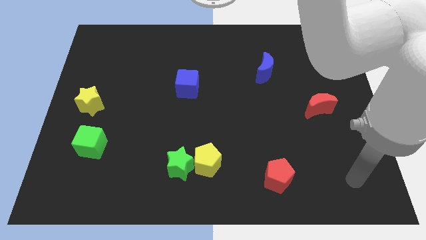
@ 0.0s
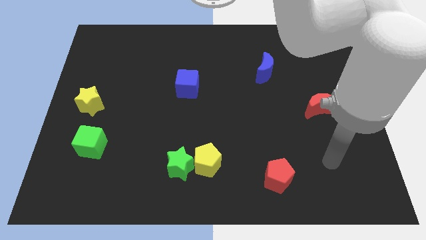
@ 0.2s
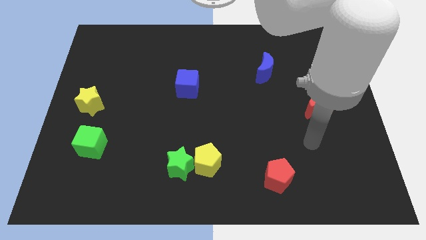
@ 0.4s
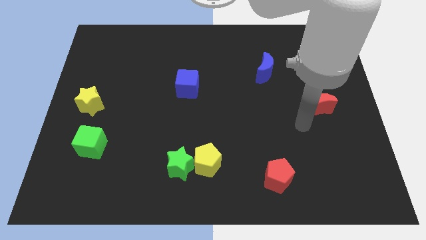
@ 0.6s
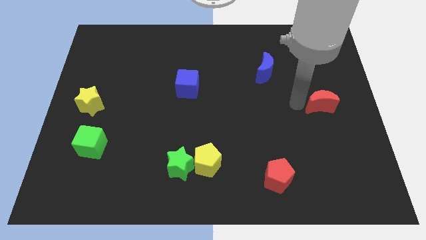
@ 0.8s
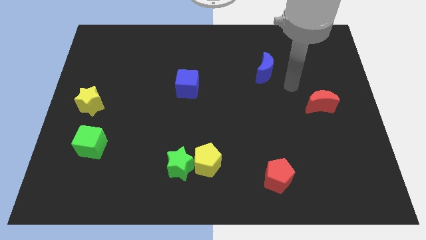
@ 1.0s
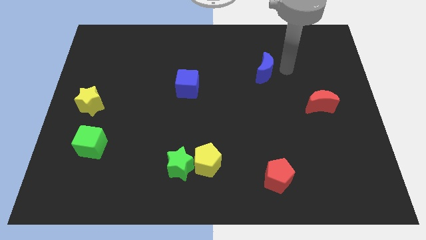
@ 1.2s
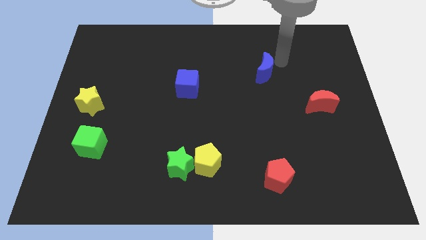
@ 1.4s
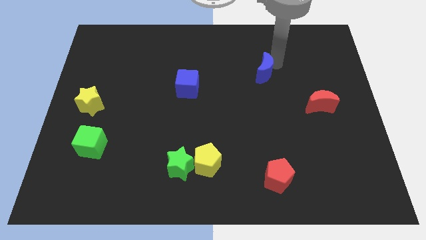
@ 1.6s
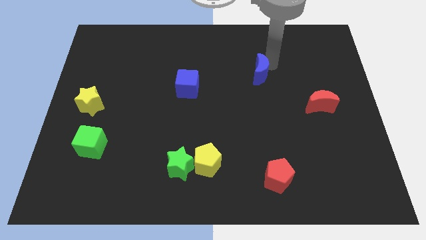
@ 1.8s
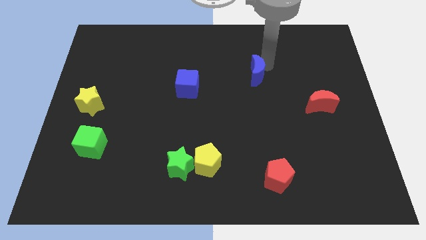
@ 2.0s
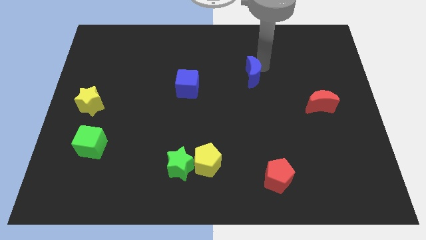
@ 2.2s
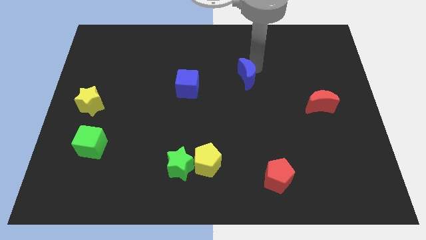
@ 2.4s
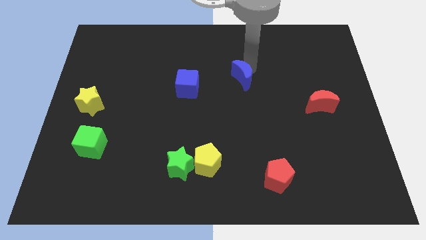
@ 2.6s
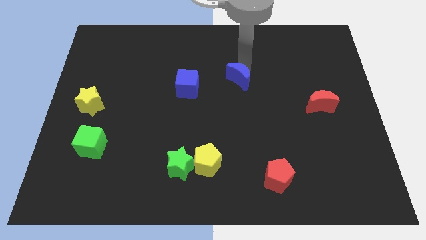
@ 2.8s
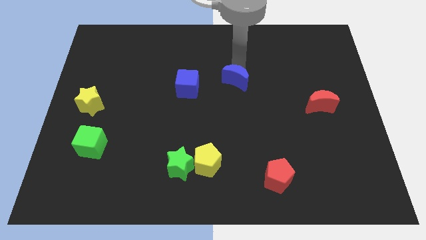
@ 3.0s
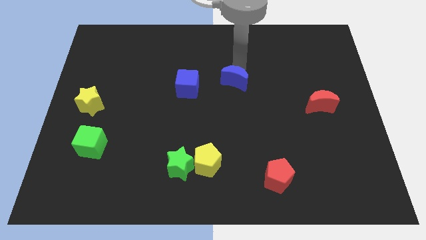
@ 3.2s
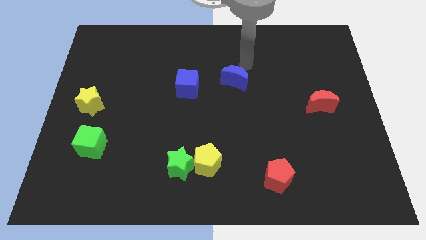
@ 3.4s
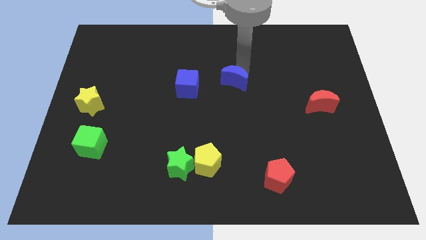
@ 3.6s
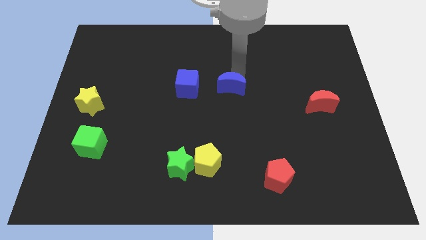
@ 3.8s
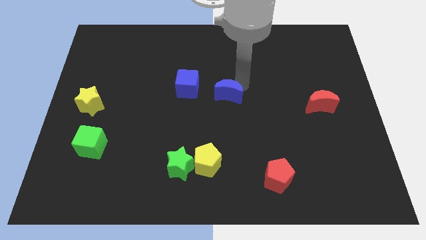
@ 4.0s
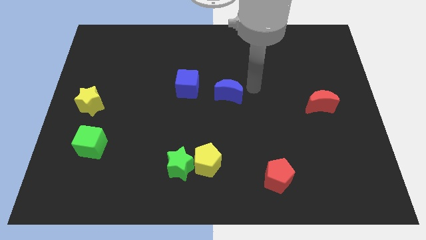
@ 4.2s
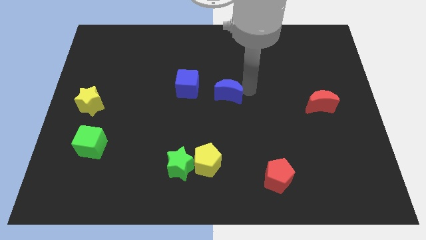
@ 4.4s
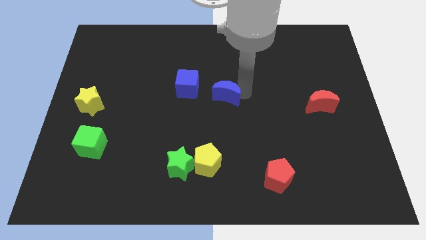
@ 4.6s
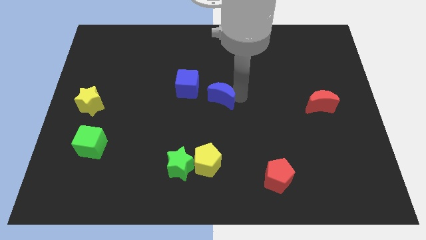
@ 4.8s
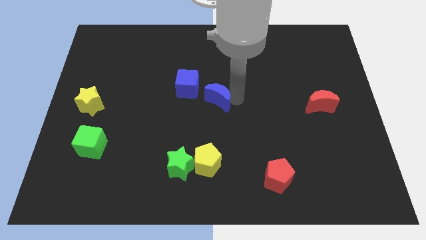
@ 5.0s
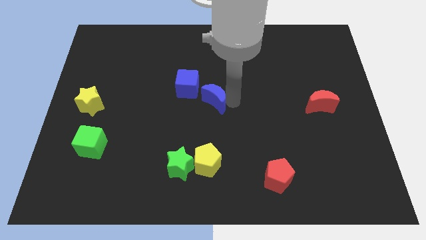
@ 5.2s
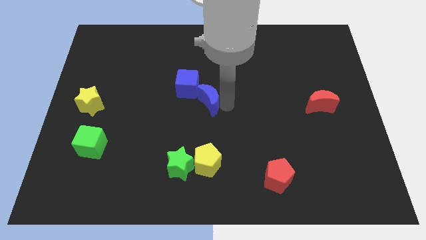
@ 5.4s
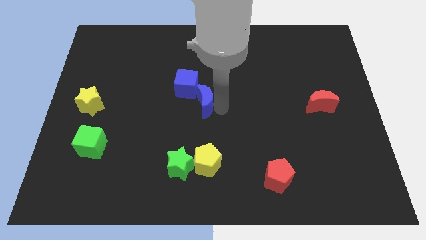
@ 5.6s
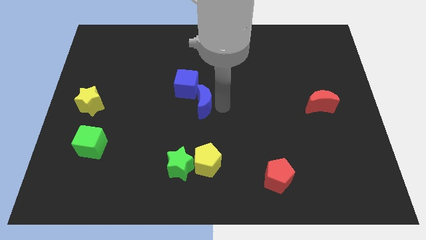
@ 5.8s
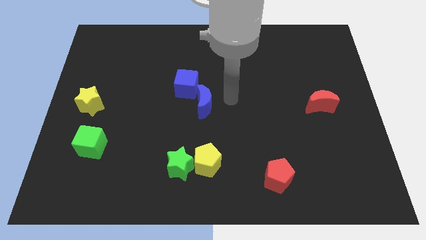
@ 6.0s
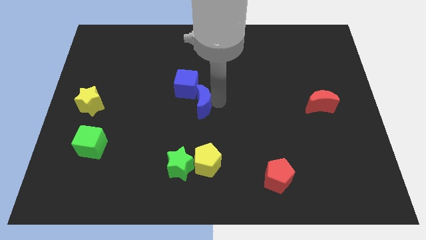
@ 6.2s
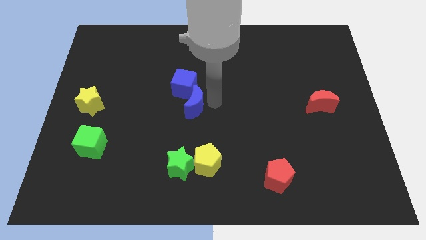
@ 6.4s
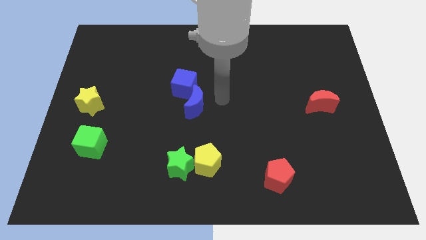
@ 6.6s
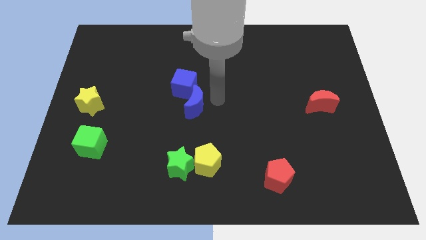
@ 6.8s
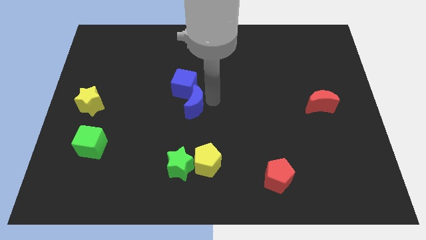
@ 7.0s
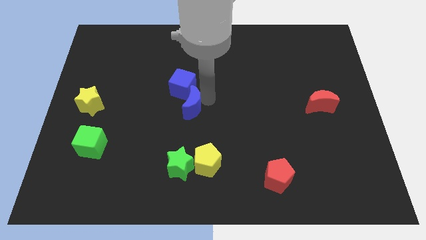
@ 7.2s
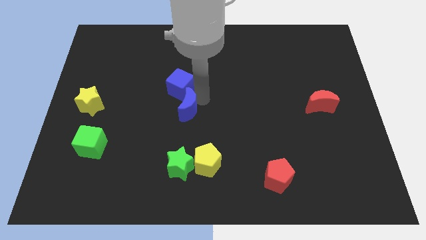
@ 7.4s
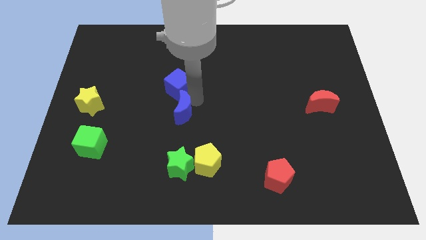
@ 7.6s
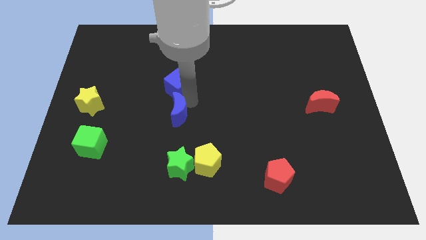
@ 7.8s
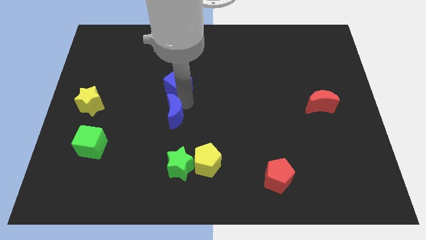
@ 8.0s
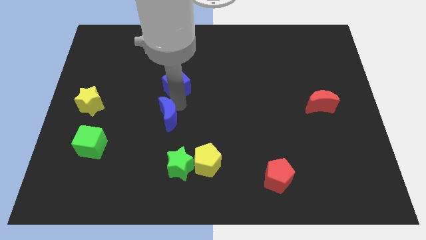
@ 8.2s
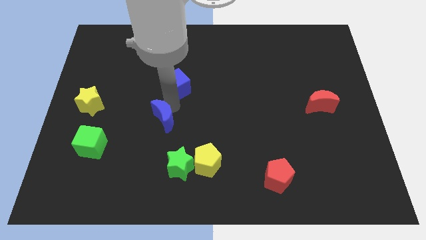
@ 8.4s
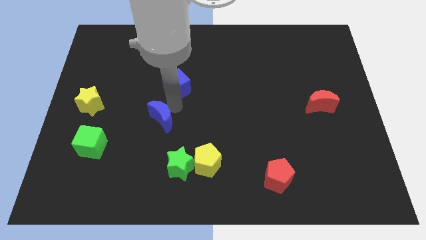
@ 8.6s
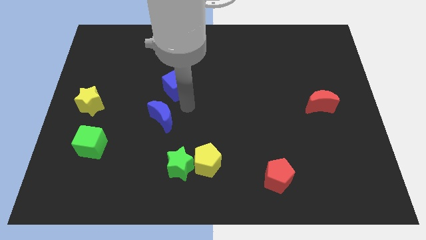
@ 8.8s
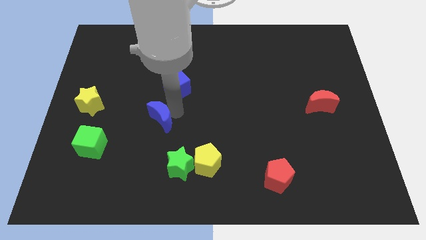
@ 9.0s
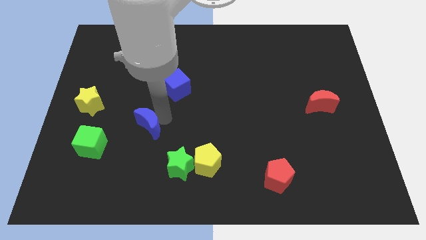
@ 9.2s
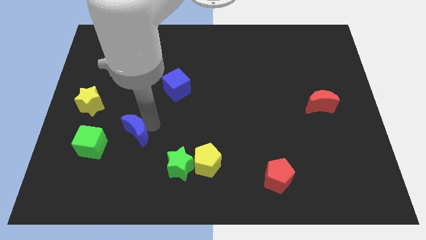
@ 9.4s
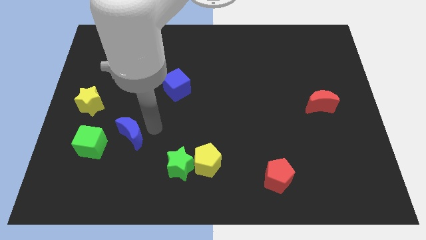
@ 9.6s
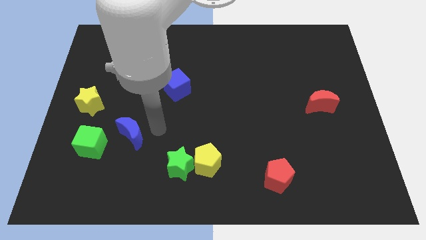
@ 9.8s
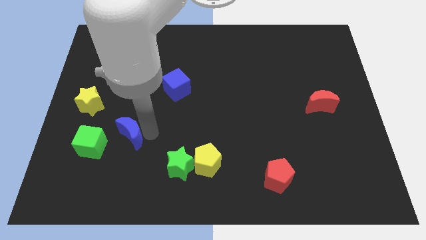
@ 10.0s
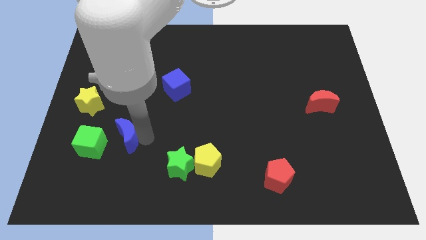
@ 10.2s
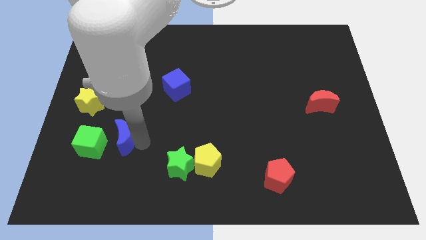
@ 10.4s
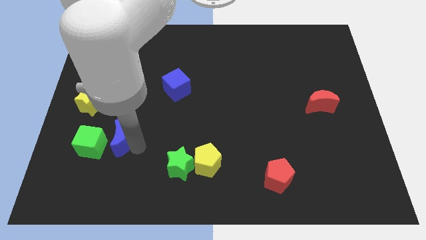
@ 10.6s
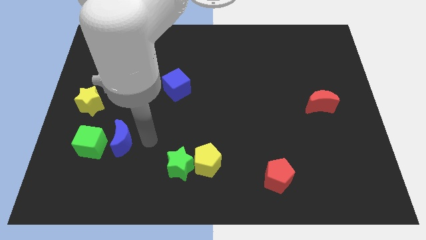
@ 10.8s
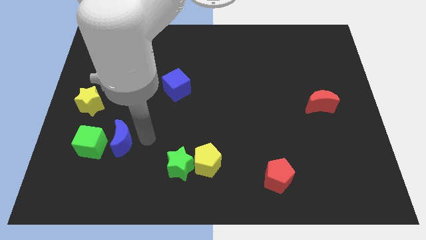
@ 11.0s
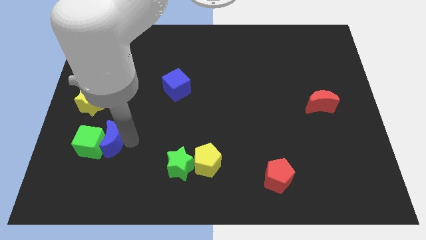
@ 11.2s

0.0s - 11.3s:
move the blue moon to the green cube

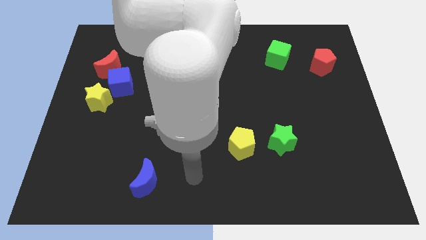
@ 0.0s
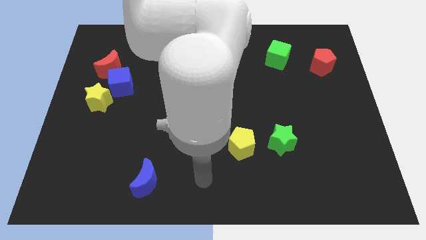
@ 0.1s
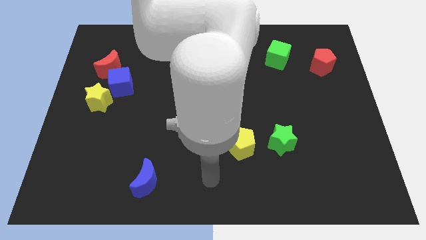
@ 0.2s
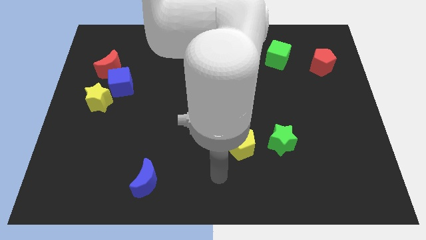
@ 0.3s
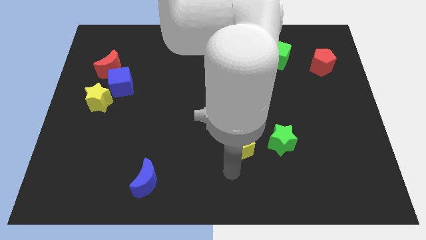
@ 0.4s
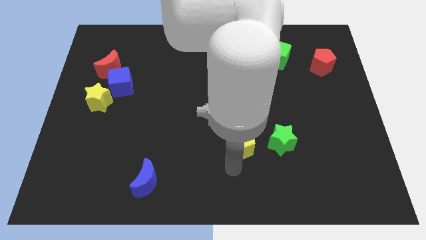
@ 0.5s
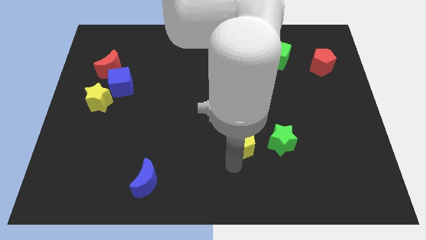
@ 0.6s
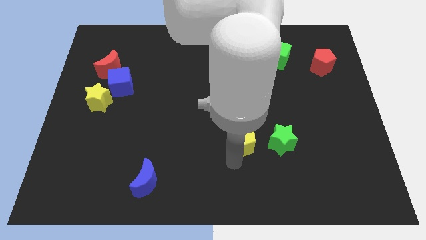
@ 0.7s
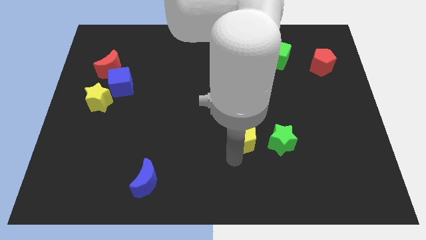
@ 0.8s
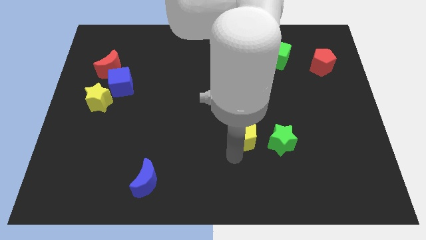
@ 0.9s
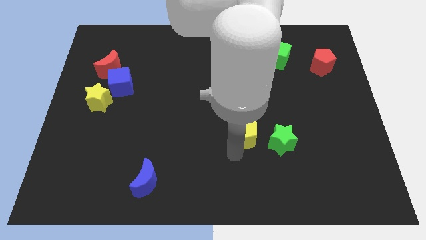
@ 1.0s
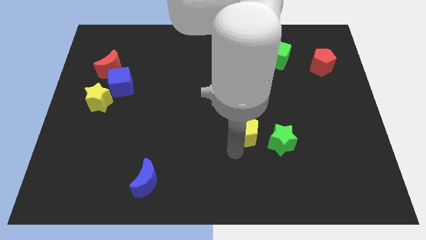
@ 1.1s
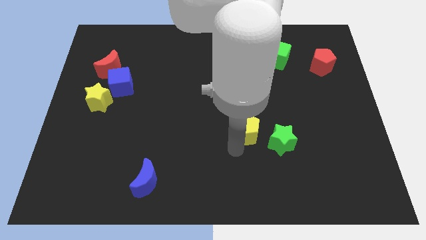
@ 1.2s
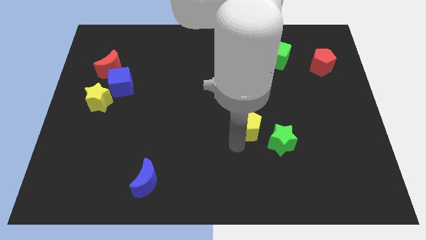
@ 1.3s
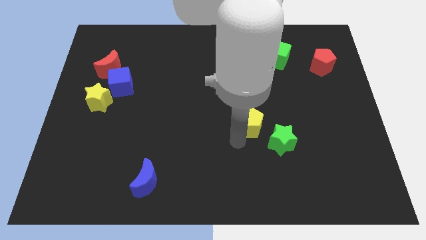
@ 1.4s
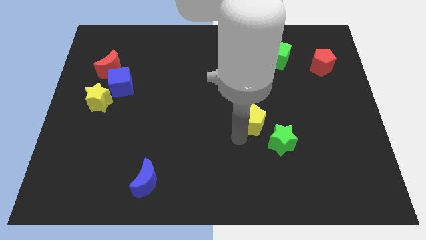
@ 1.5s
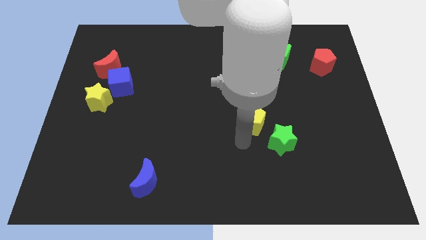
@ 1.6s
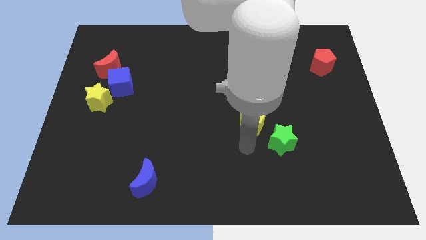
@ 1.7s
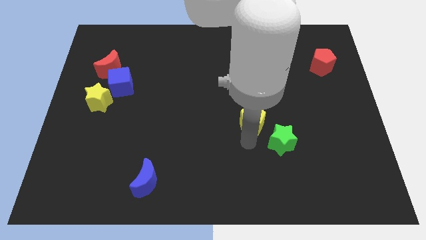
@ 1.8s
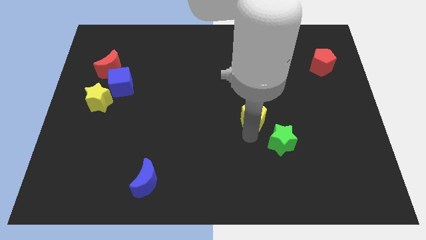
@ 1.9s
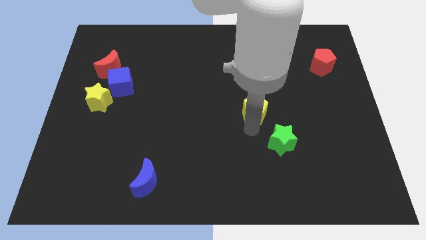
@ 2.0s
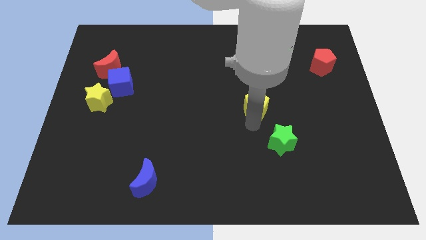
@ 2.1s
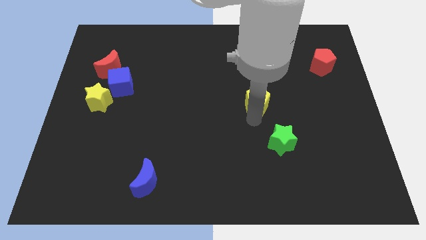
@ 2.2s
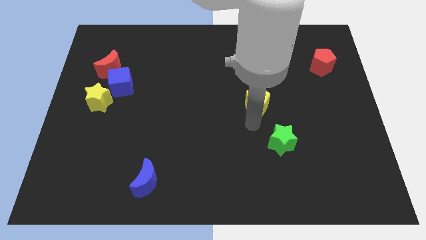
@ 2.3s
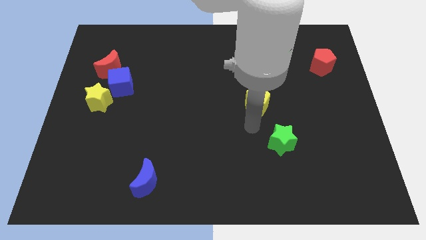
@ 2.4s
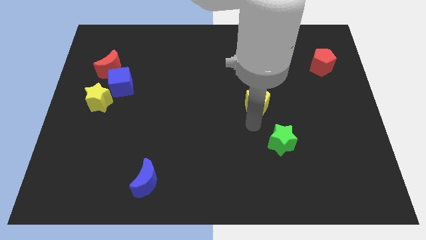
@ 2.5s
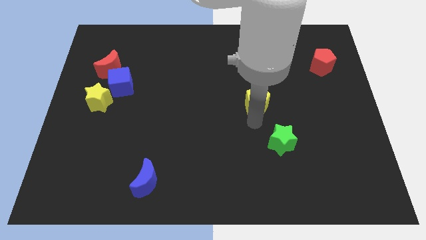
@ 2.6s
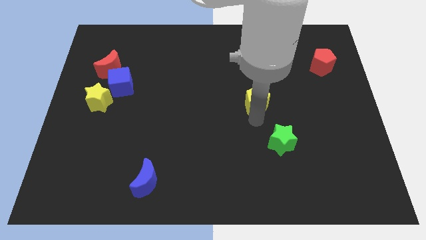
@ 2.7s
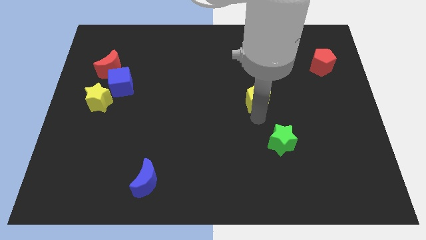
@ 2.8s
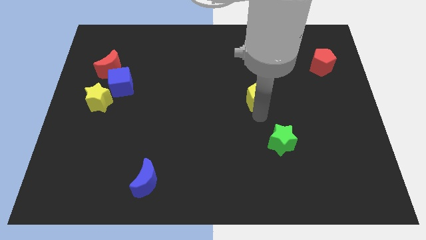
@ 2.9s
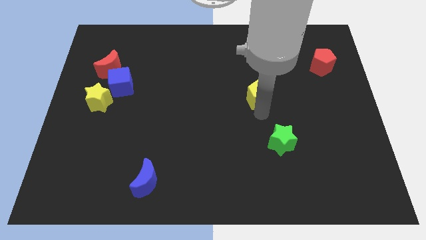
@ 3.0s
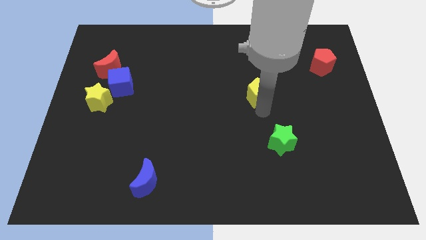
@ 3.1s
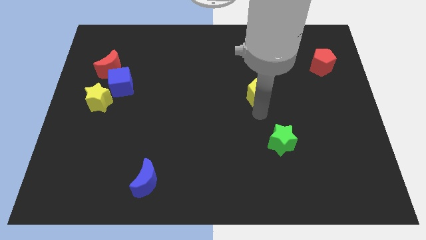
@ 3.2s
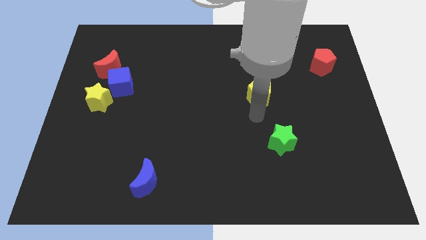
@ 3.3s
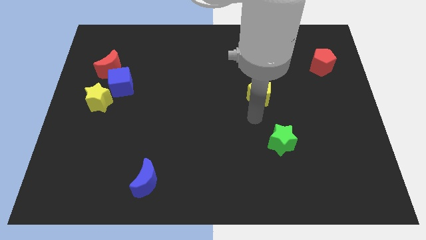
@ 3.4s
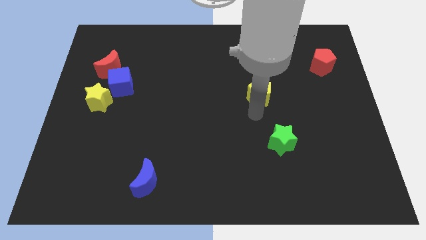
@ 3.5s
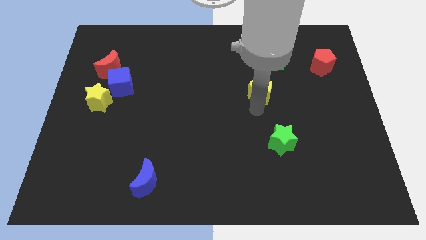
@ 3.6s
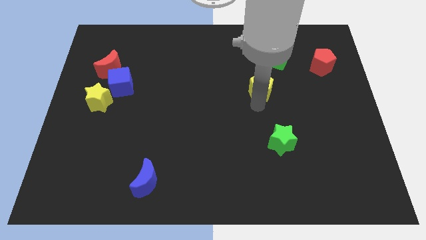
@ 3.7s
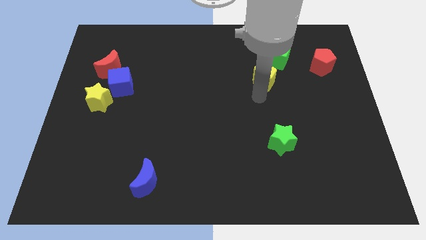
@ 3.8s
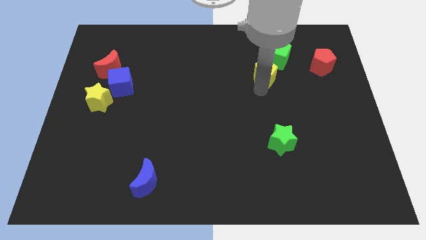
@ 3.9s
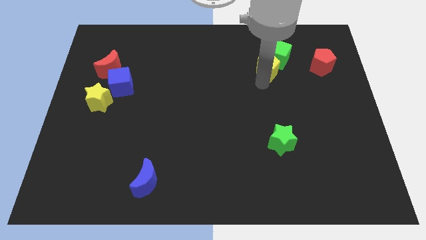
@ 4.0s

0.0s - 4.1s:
move the yellow pentagon close to the green cube
